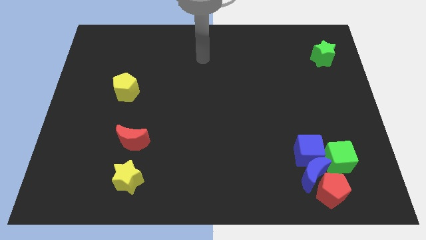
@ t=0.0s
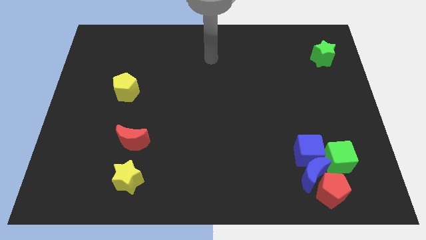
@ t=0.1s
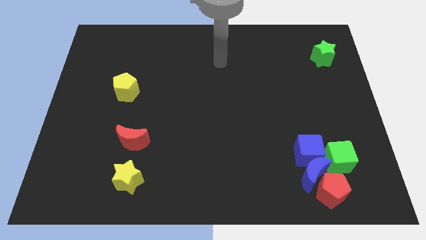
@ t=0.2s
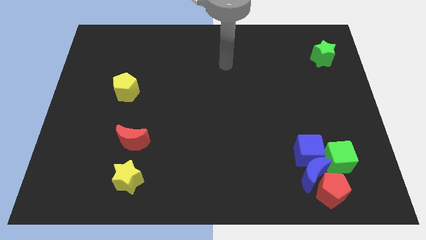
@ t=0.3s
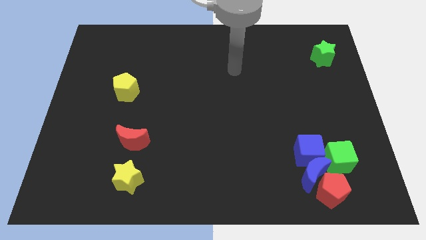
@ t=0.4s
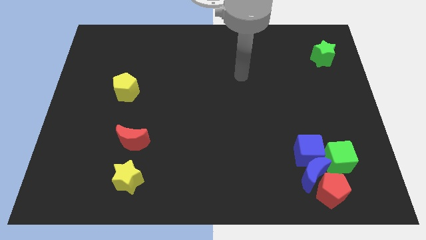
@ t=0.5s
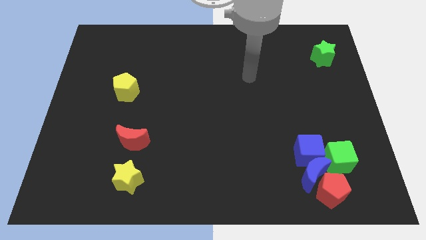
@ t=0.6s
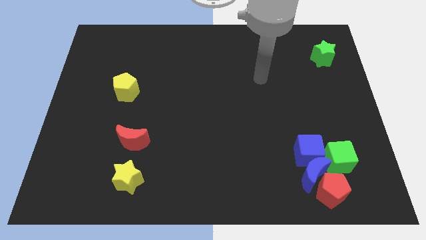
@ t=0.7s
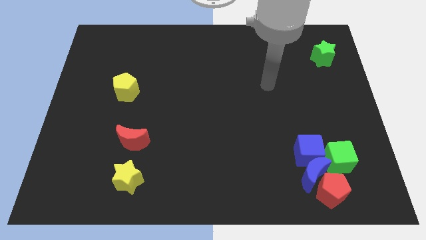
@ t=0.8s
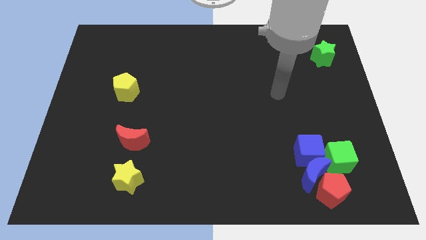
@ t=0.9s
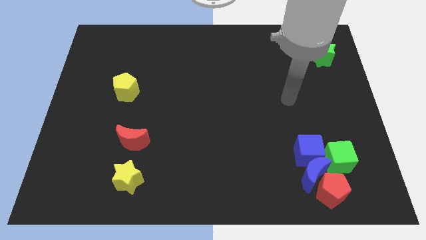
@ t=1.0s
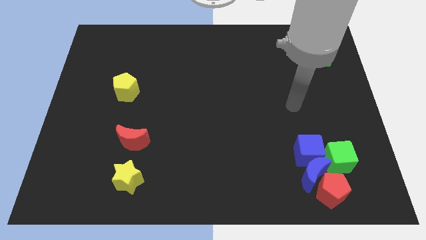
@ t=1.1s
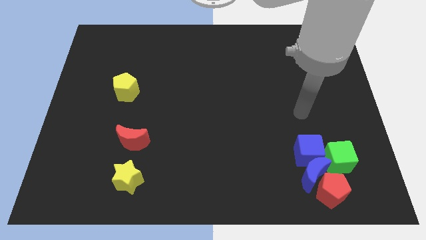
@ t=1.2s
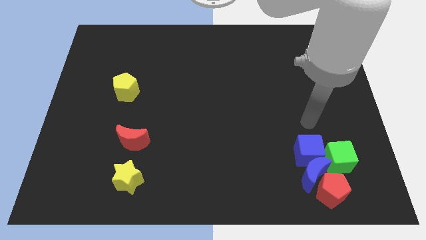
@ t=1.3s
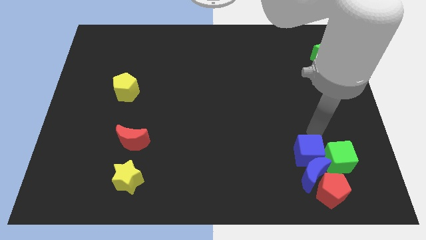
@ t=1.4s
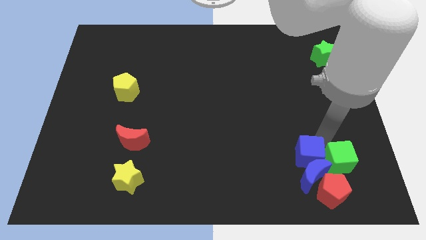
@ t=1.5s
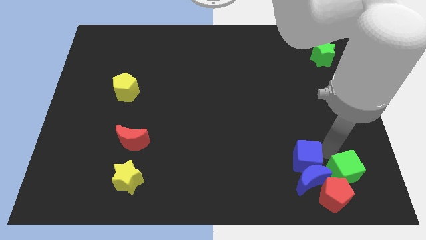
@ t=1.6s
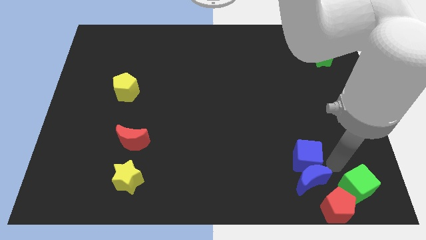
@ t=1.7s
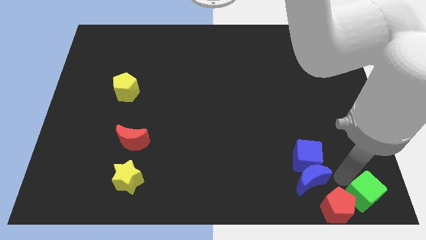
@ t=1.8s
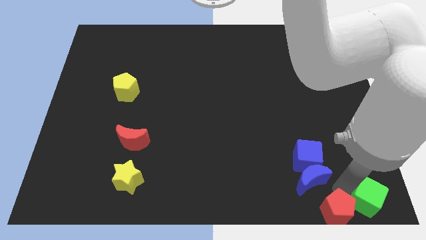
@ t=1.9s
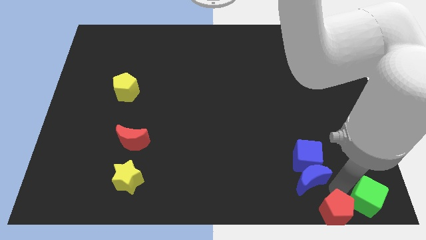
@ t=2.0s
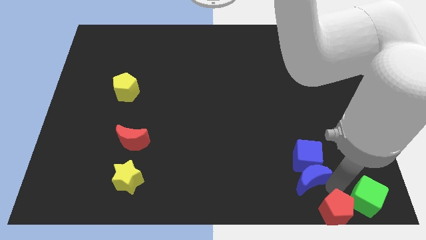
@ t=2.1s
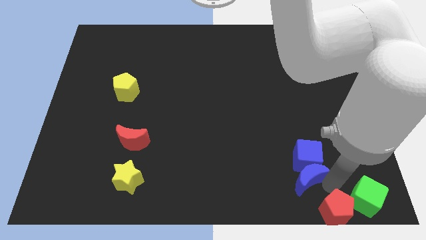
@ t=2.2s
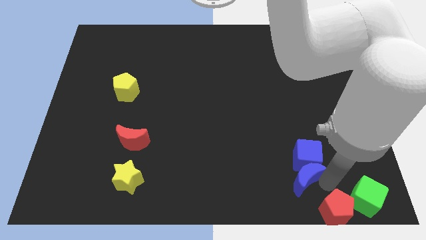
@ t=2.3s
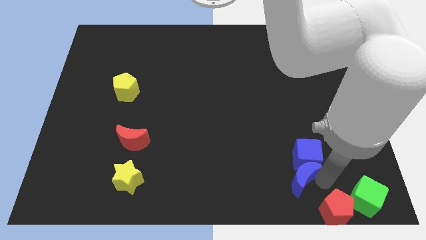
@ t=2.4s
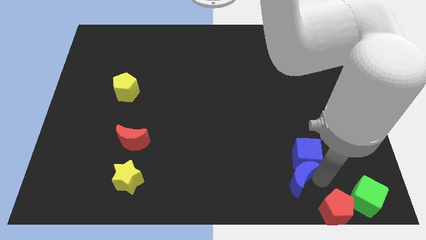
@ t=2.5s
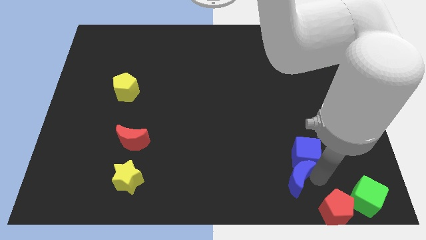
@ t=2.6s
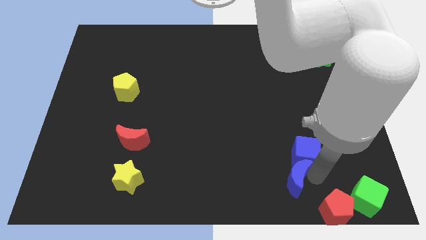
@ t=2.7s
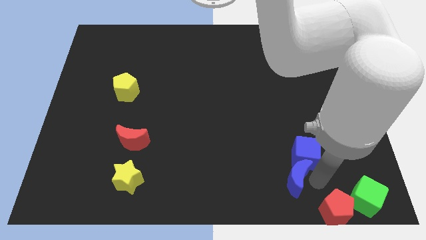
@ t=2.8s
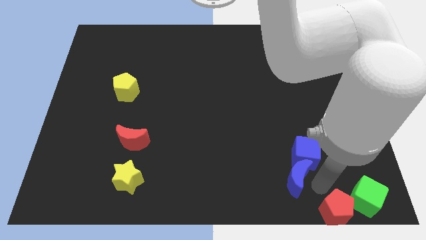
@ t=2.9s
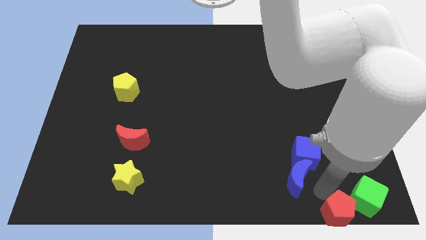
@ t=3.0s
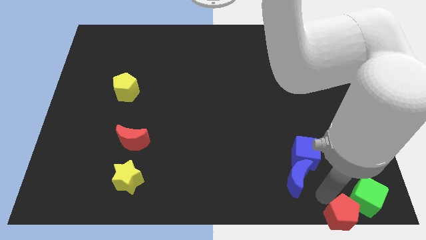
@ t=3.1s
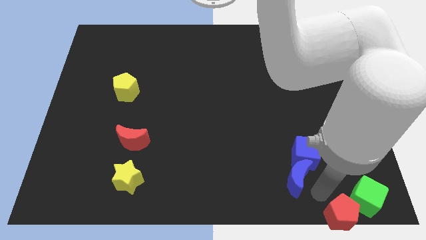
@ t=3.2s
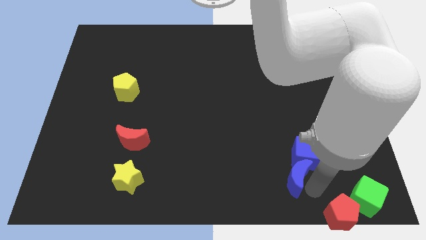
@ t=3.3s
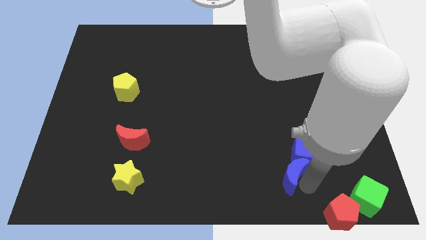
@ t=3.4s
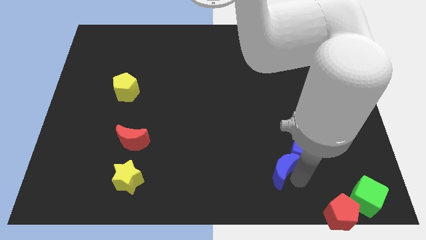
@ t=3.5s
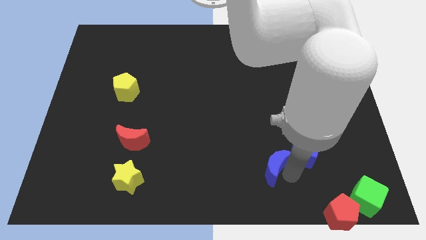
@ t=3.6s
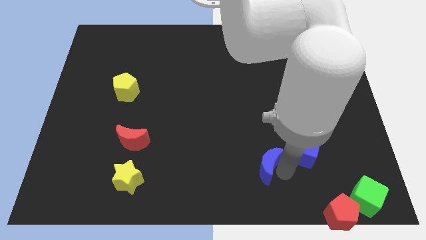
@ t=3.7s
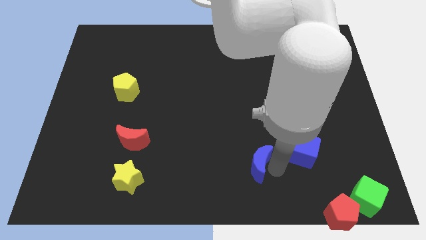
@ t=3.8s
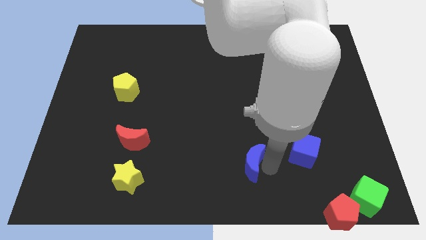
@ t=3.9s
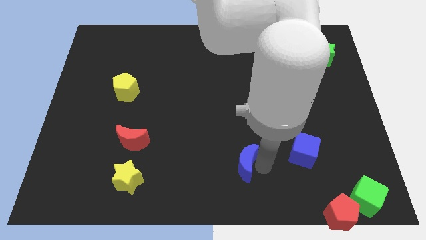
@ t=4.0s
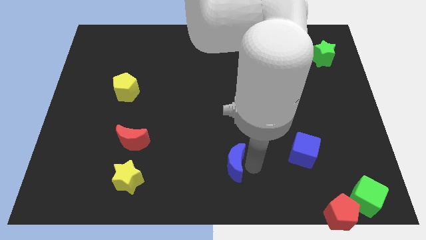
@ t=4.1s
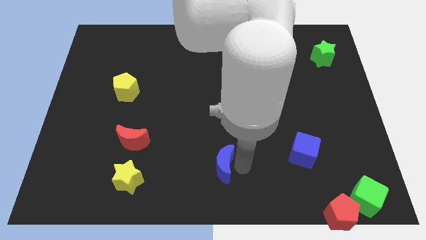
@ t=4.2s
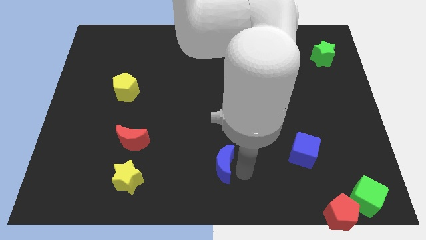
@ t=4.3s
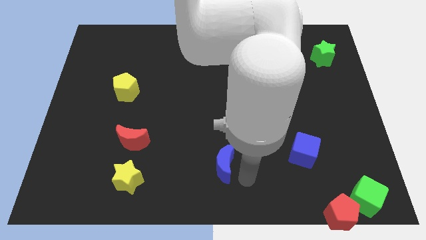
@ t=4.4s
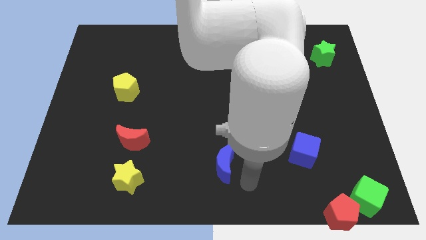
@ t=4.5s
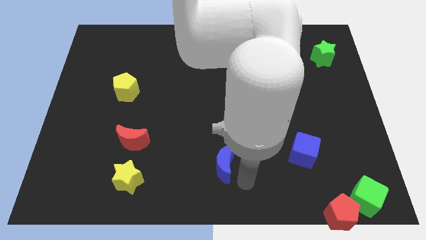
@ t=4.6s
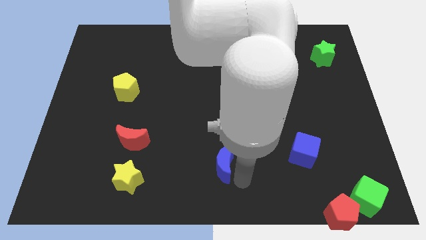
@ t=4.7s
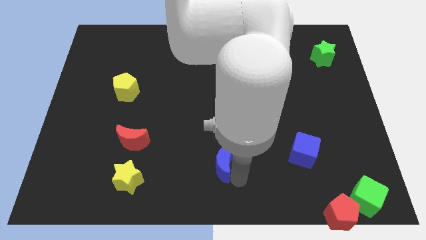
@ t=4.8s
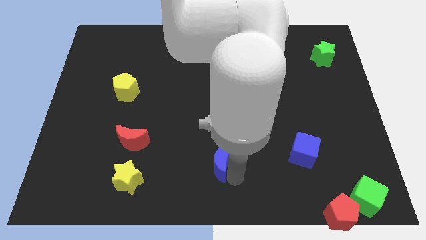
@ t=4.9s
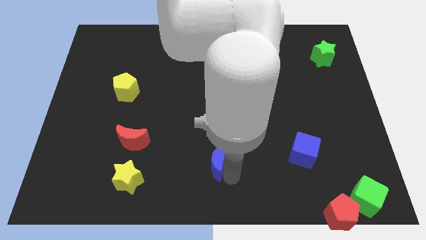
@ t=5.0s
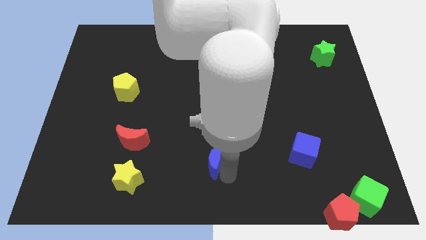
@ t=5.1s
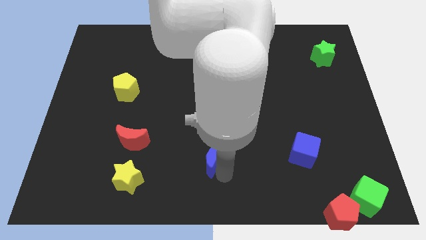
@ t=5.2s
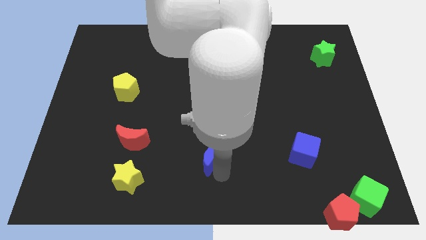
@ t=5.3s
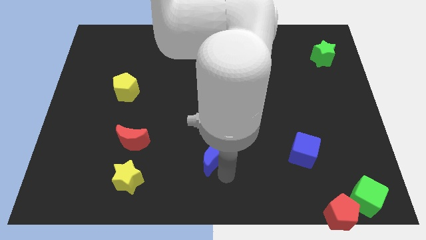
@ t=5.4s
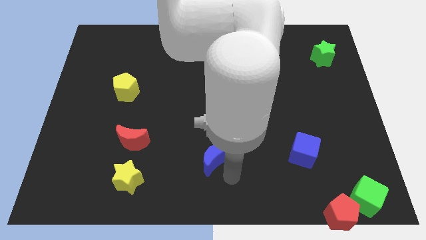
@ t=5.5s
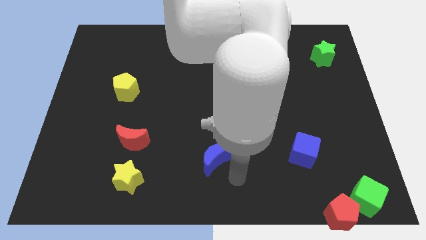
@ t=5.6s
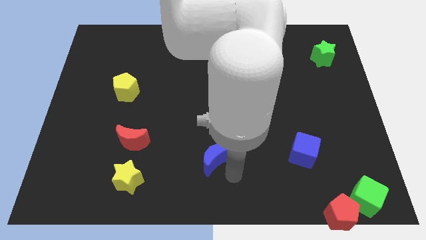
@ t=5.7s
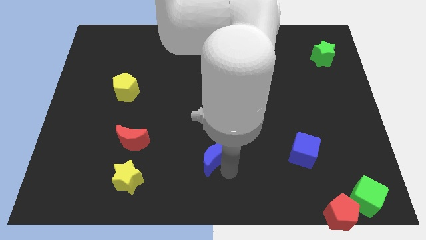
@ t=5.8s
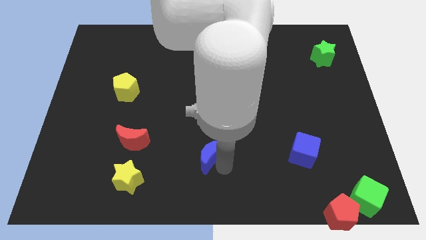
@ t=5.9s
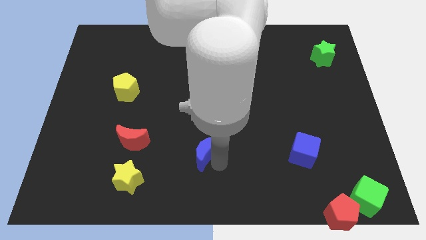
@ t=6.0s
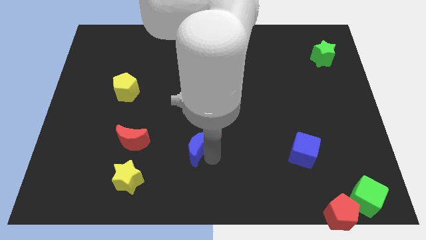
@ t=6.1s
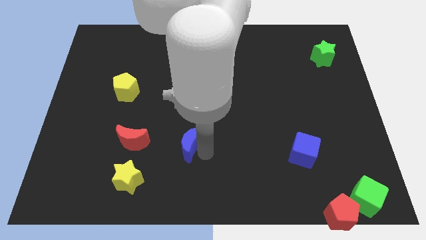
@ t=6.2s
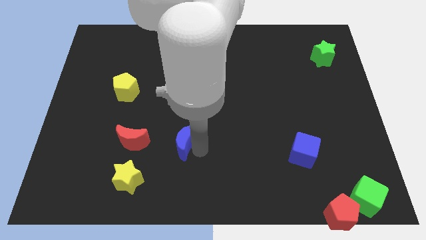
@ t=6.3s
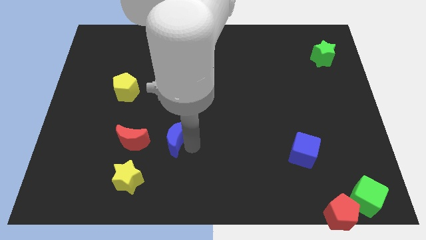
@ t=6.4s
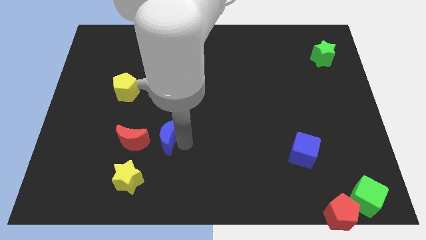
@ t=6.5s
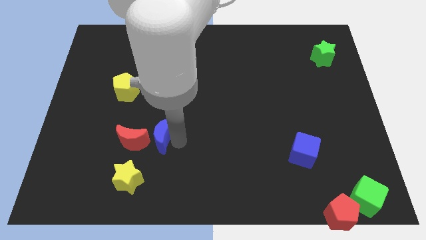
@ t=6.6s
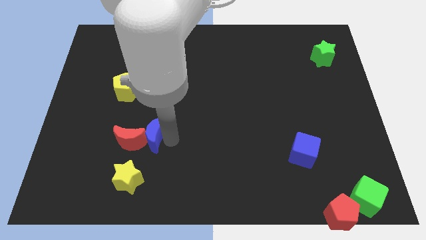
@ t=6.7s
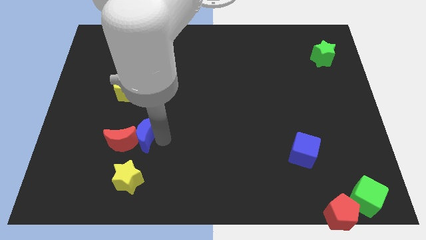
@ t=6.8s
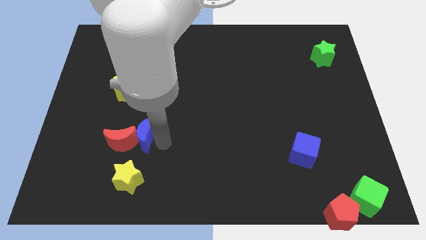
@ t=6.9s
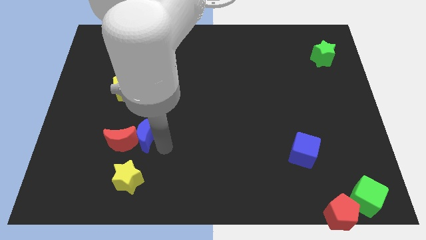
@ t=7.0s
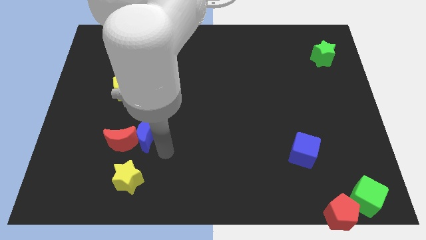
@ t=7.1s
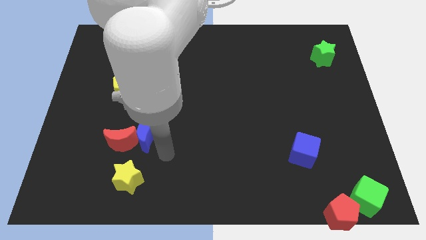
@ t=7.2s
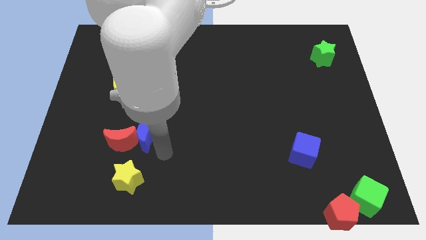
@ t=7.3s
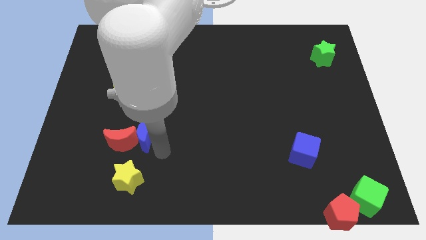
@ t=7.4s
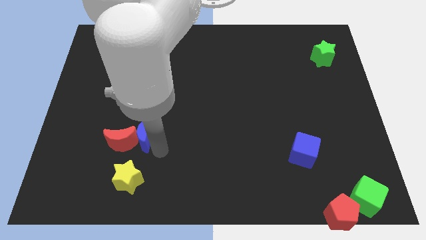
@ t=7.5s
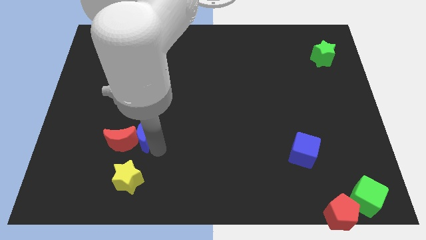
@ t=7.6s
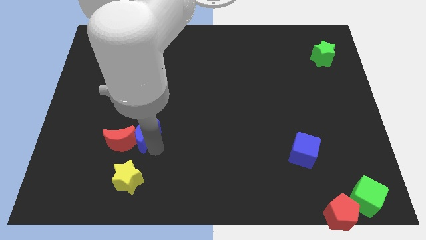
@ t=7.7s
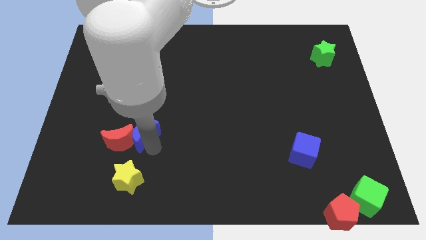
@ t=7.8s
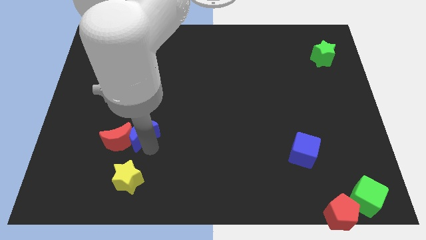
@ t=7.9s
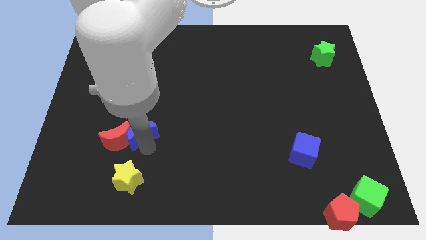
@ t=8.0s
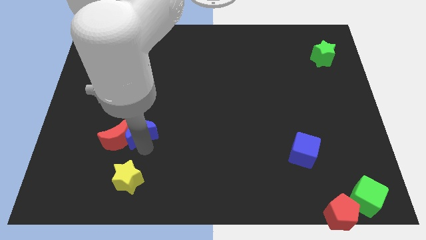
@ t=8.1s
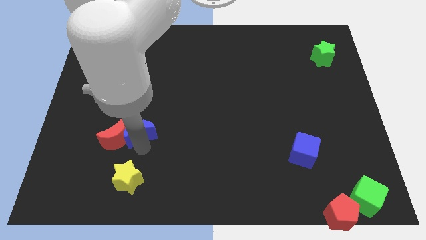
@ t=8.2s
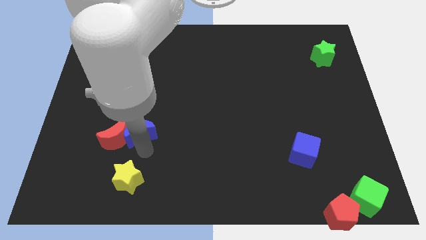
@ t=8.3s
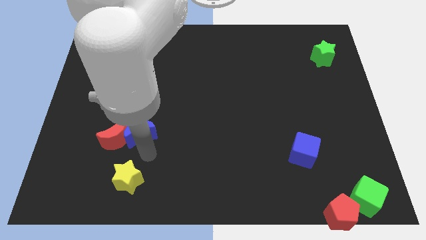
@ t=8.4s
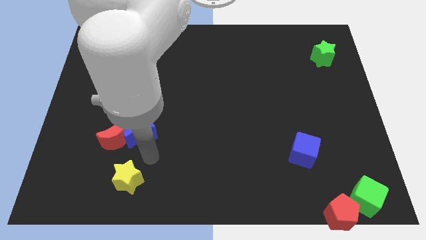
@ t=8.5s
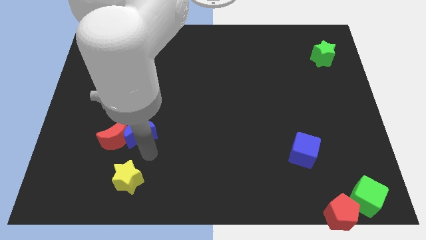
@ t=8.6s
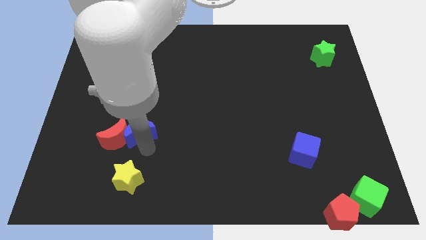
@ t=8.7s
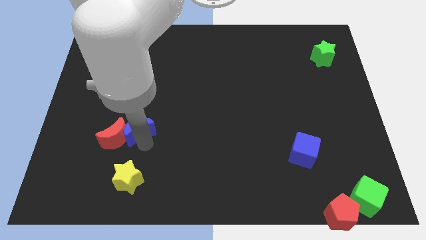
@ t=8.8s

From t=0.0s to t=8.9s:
push the blue moon to the bottom side of the yellow pentagon
